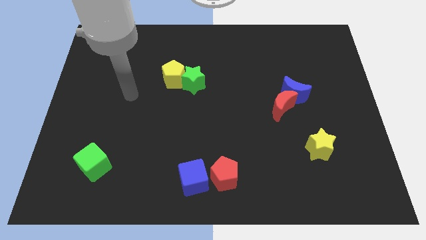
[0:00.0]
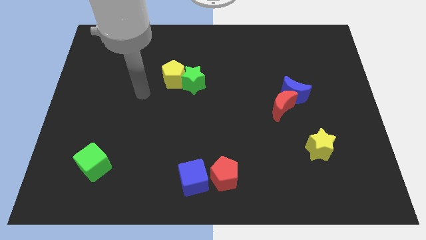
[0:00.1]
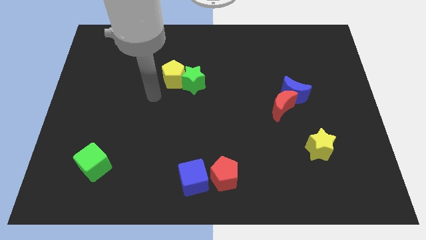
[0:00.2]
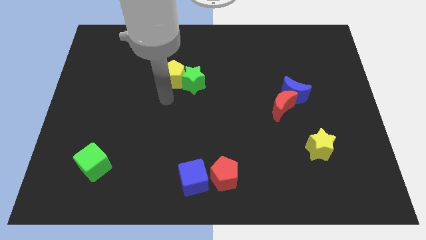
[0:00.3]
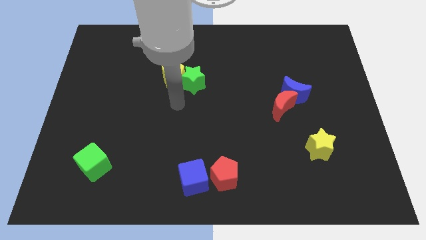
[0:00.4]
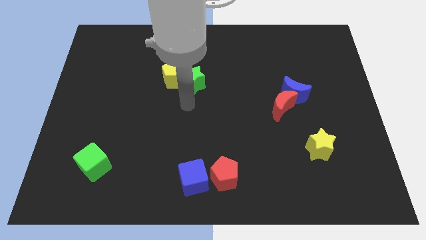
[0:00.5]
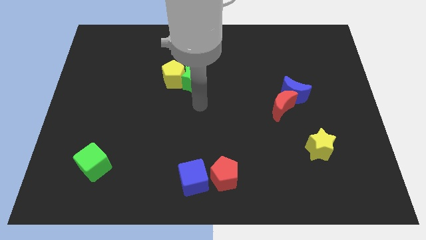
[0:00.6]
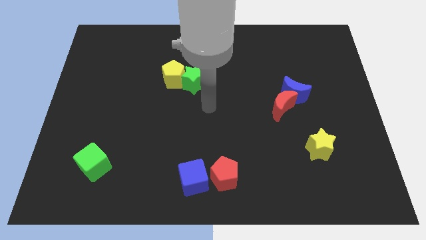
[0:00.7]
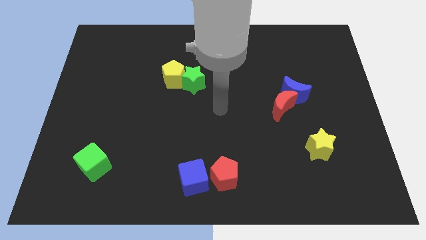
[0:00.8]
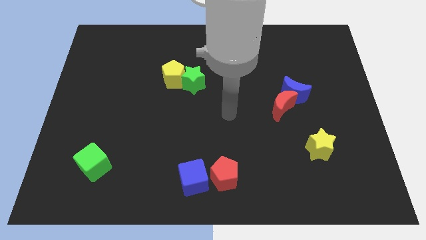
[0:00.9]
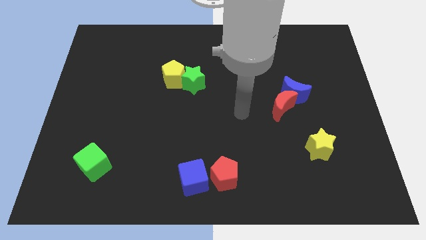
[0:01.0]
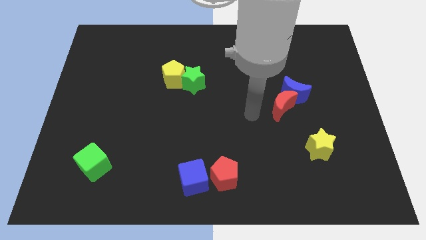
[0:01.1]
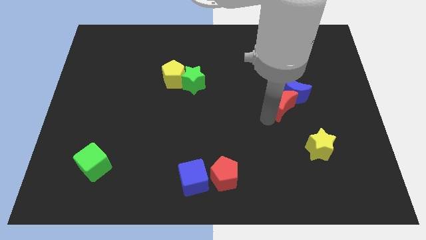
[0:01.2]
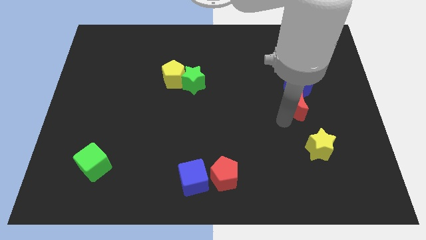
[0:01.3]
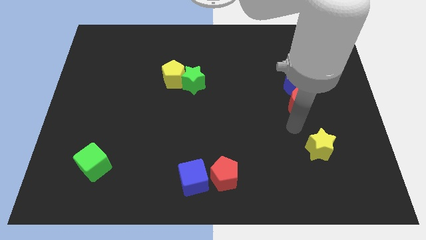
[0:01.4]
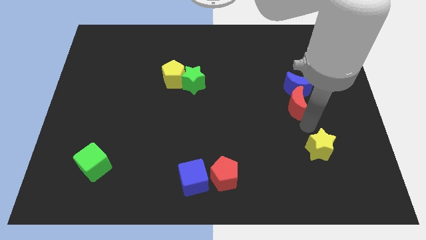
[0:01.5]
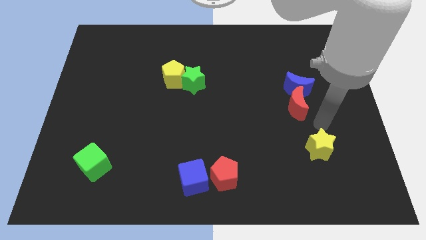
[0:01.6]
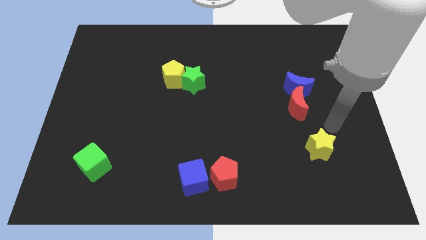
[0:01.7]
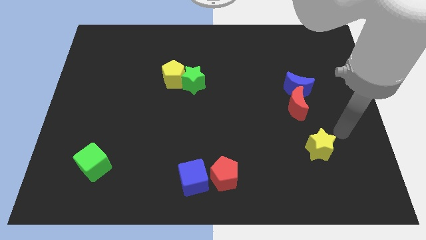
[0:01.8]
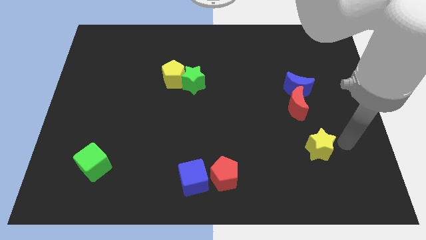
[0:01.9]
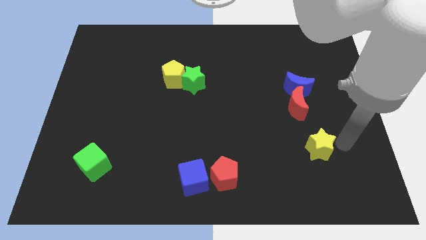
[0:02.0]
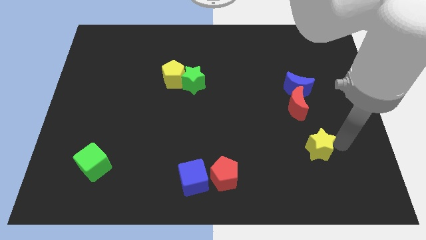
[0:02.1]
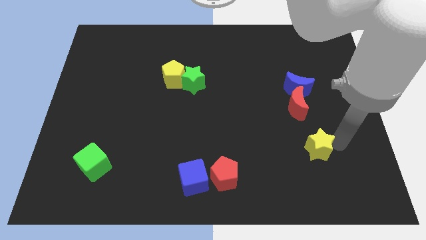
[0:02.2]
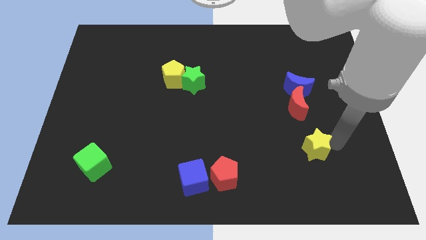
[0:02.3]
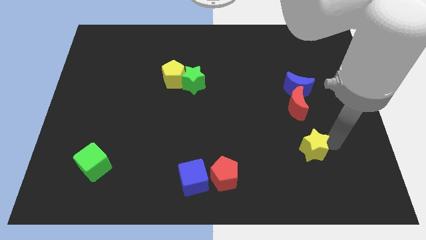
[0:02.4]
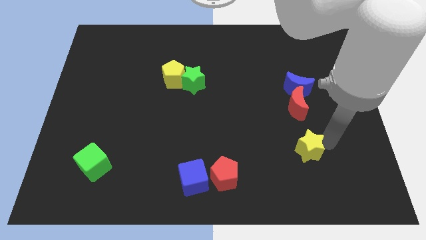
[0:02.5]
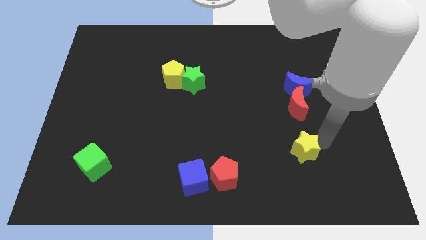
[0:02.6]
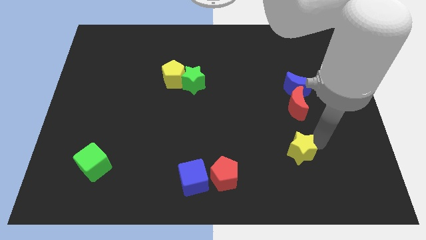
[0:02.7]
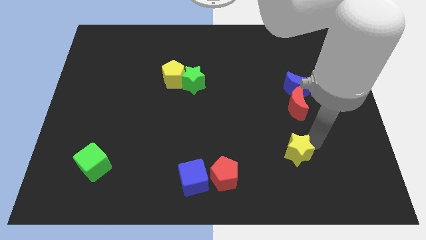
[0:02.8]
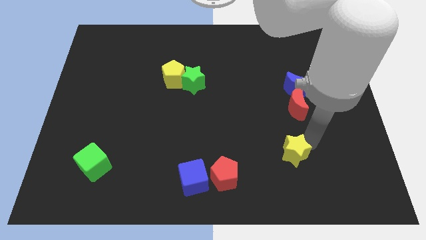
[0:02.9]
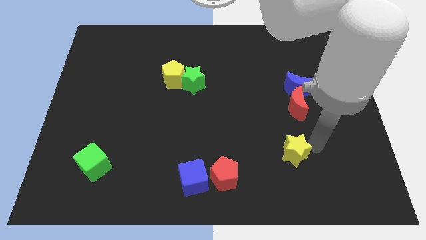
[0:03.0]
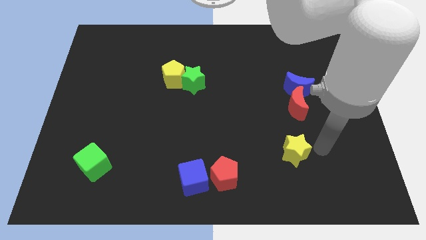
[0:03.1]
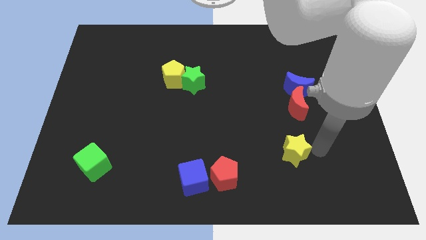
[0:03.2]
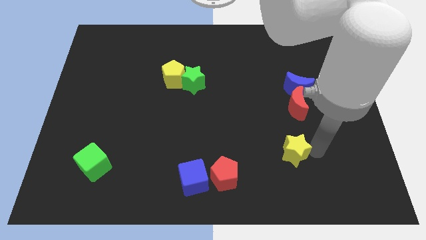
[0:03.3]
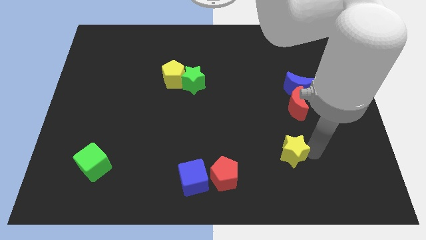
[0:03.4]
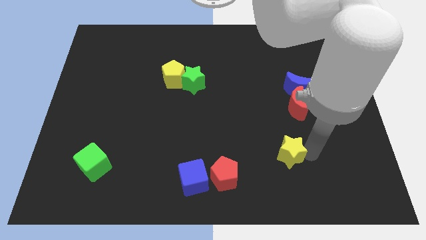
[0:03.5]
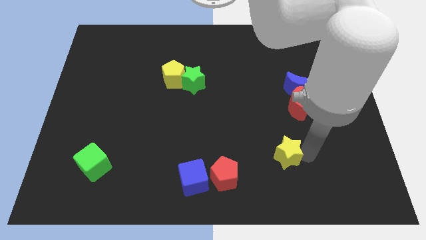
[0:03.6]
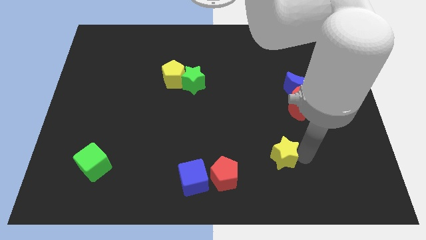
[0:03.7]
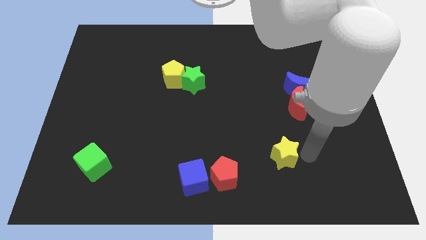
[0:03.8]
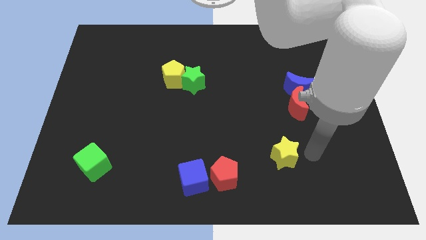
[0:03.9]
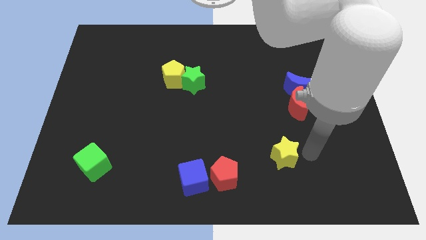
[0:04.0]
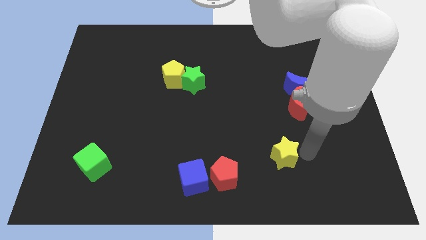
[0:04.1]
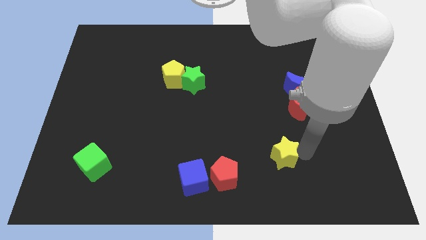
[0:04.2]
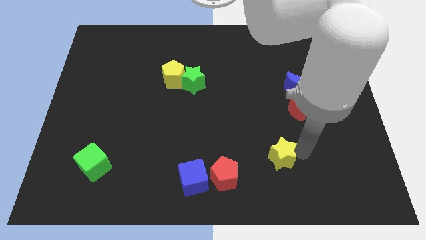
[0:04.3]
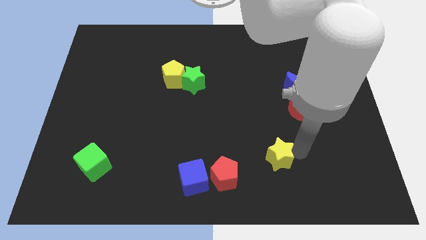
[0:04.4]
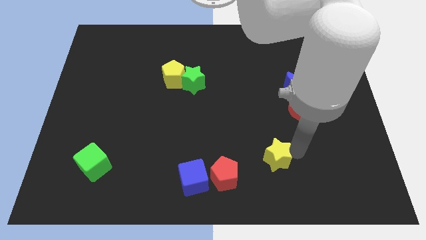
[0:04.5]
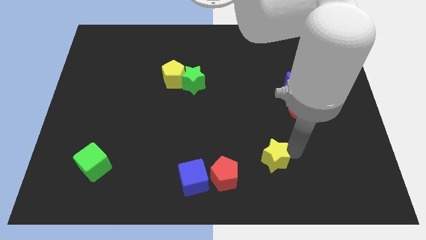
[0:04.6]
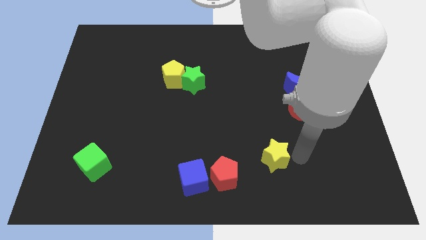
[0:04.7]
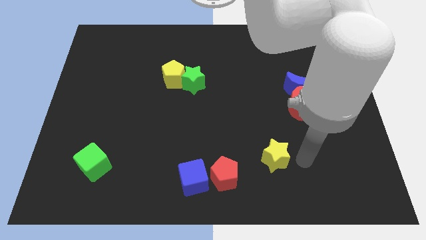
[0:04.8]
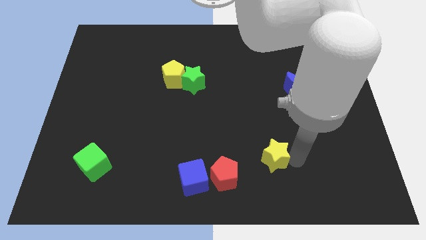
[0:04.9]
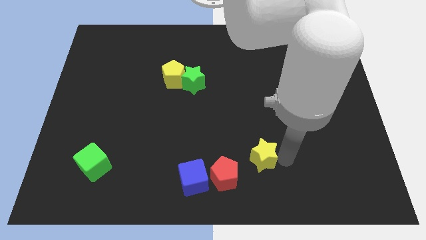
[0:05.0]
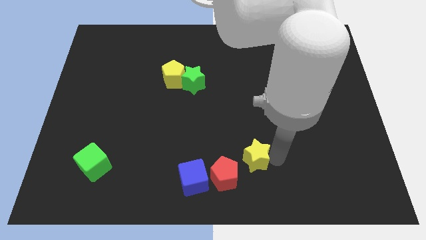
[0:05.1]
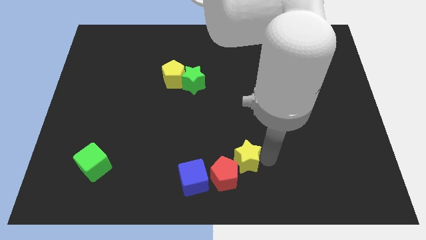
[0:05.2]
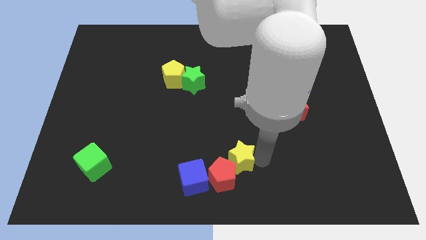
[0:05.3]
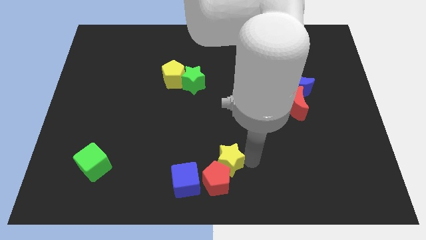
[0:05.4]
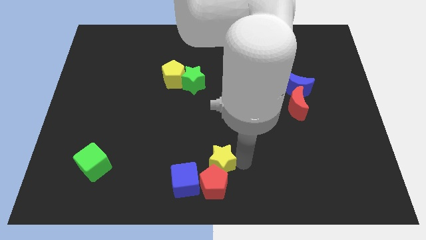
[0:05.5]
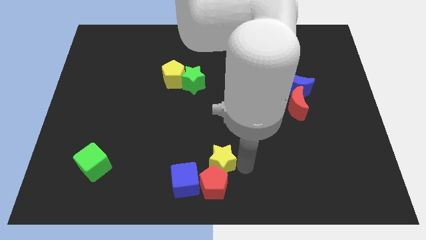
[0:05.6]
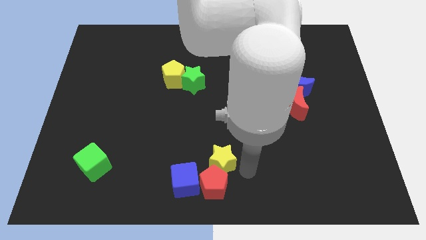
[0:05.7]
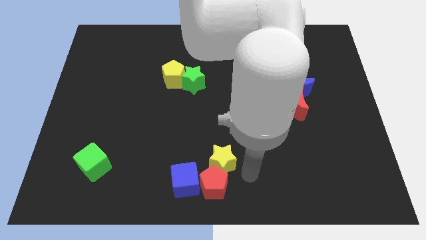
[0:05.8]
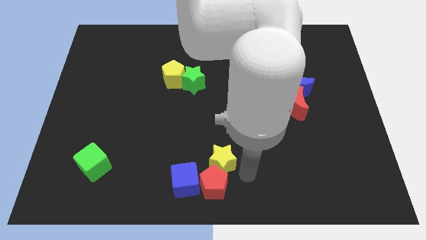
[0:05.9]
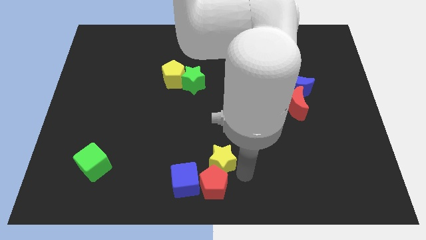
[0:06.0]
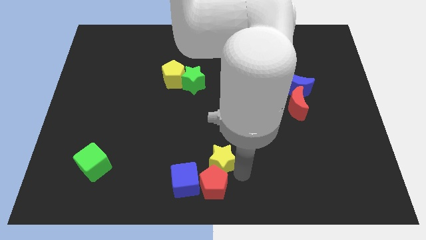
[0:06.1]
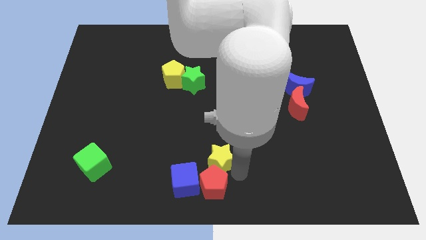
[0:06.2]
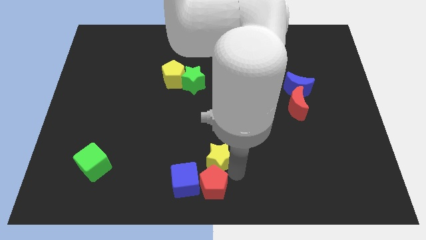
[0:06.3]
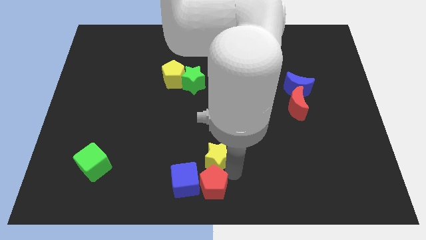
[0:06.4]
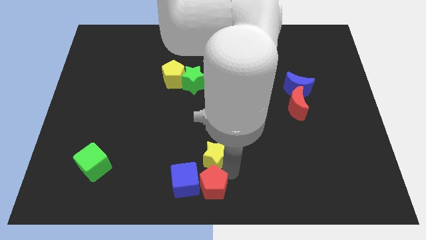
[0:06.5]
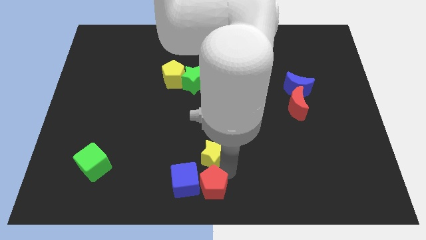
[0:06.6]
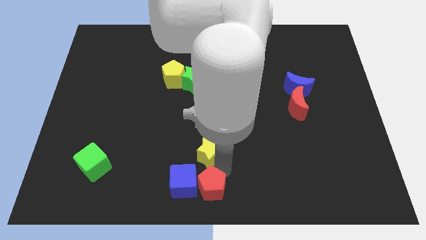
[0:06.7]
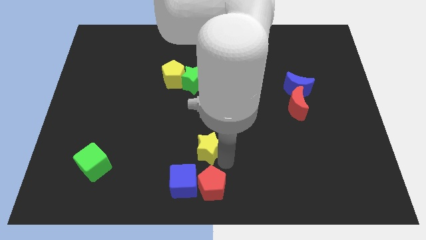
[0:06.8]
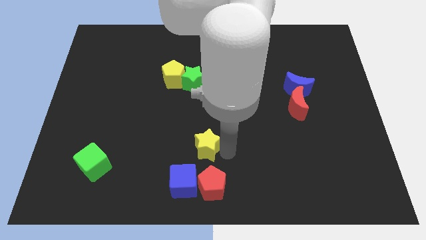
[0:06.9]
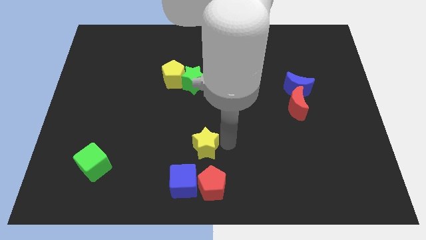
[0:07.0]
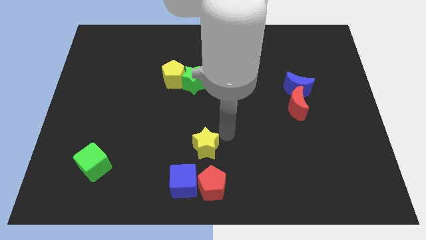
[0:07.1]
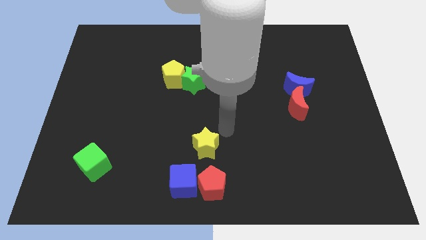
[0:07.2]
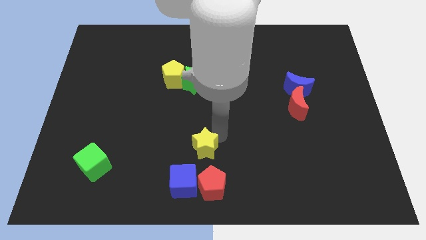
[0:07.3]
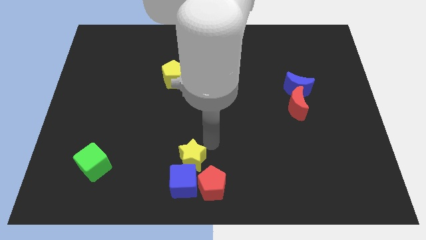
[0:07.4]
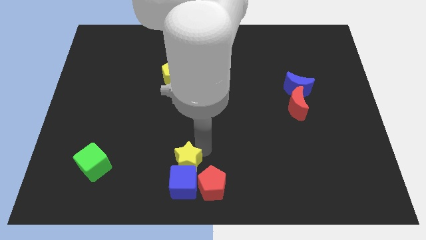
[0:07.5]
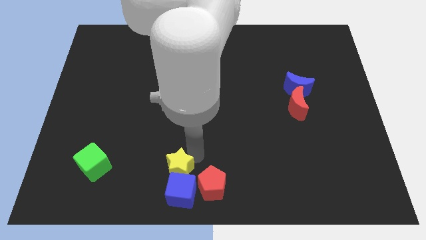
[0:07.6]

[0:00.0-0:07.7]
slide the yellow star left of the red pentagon
